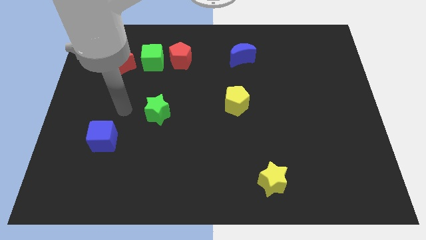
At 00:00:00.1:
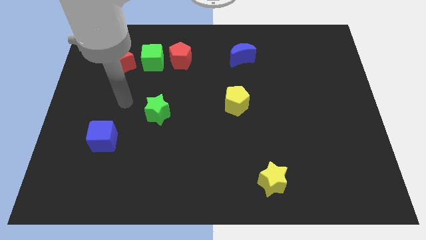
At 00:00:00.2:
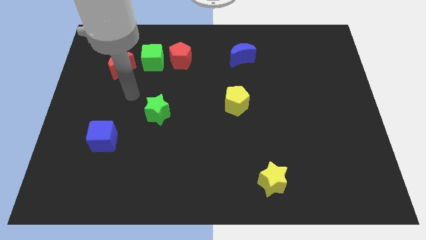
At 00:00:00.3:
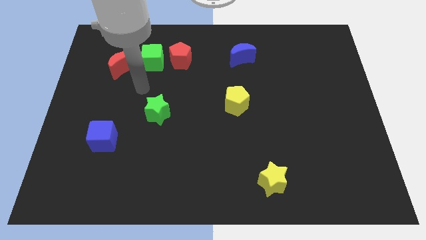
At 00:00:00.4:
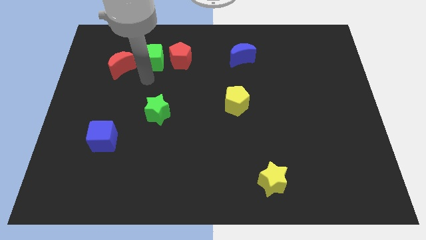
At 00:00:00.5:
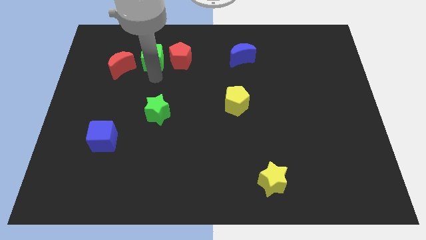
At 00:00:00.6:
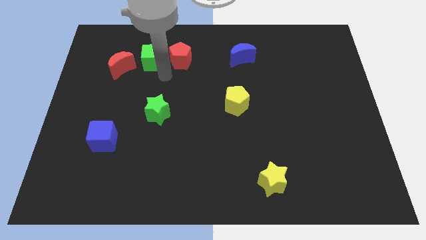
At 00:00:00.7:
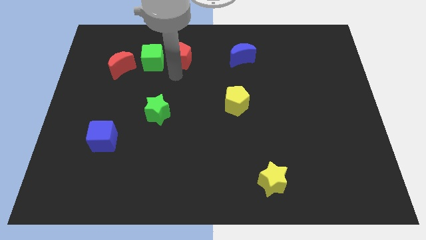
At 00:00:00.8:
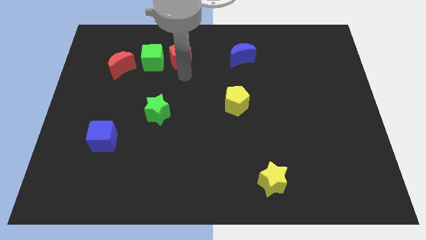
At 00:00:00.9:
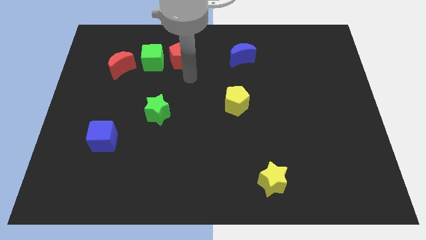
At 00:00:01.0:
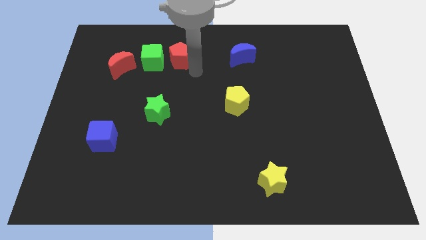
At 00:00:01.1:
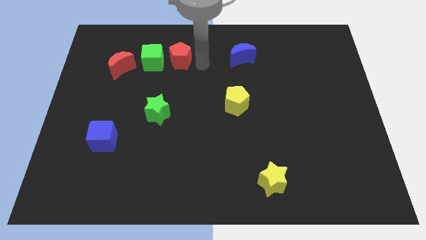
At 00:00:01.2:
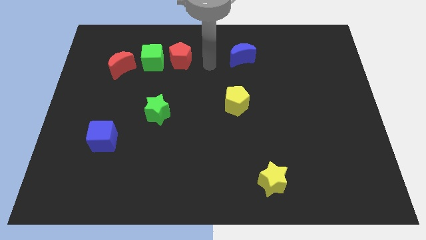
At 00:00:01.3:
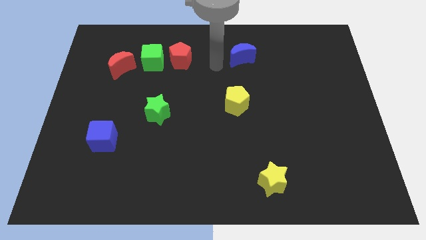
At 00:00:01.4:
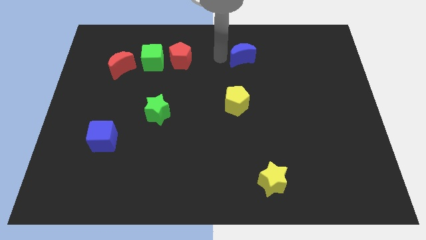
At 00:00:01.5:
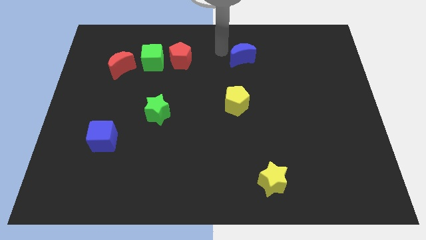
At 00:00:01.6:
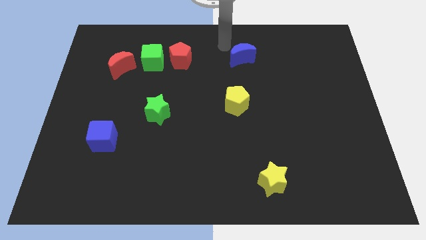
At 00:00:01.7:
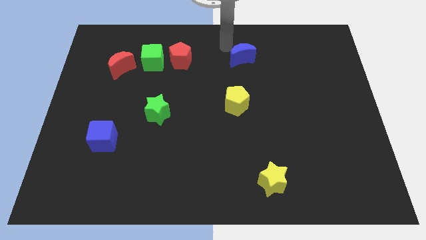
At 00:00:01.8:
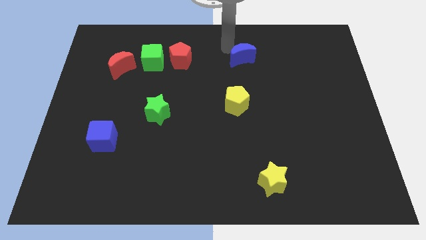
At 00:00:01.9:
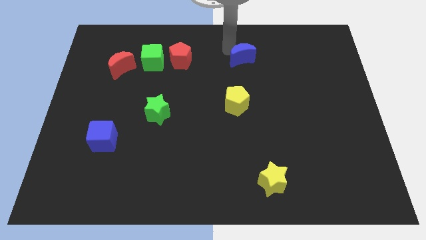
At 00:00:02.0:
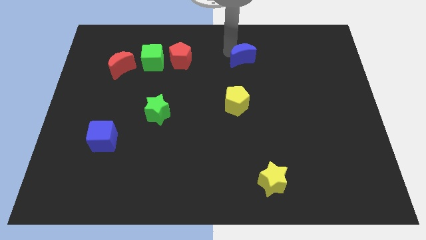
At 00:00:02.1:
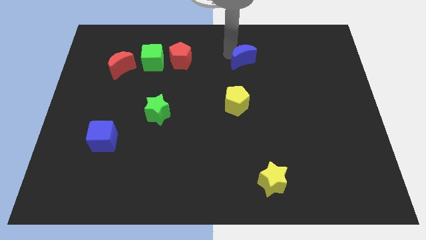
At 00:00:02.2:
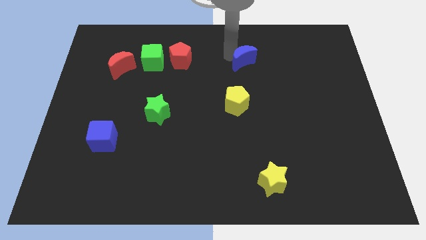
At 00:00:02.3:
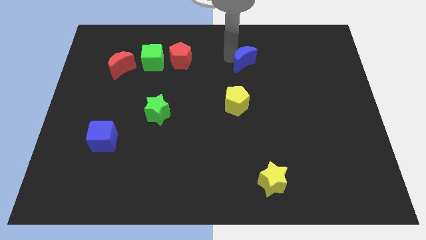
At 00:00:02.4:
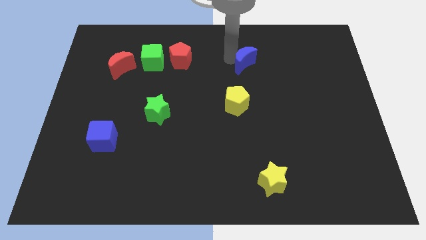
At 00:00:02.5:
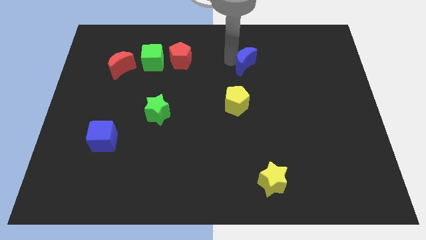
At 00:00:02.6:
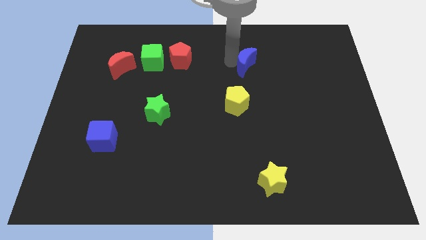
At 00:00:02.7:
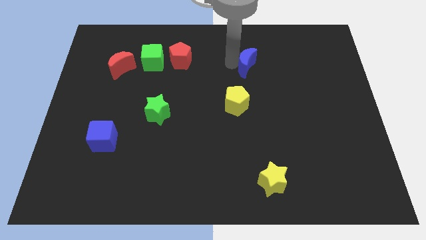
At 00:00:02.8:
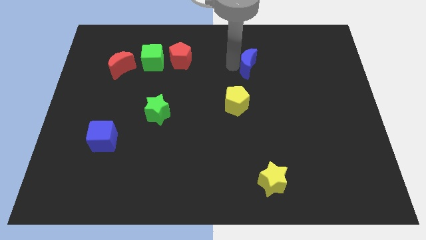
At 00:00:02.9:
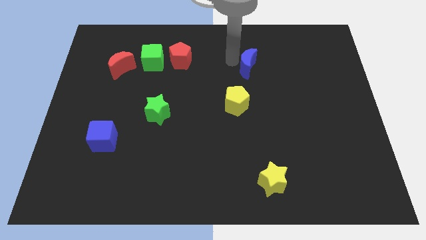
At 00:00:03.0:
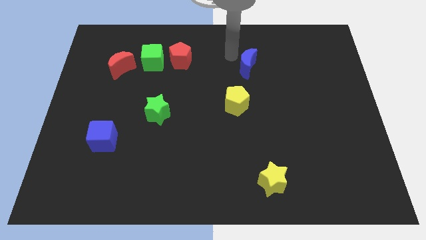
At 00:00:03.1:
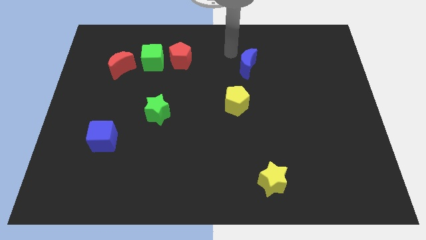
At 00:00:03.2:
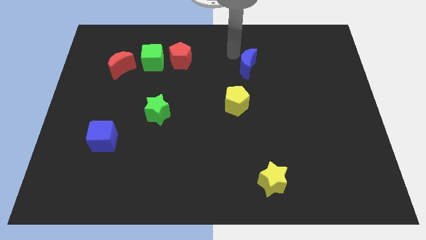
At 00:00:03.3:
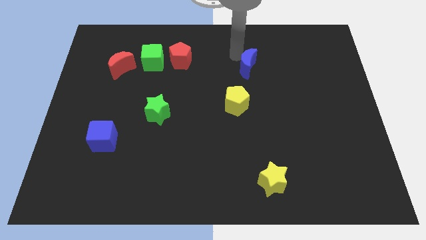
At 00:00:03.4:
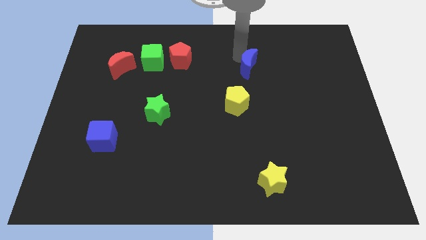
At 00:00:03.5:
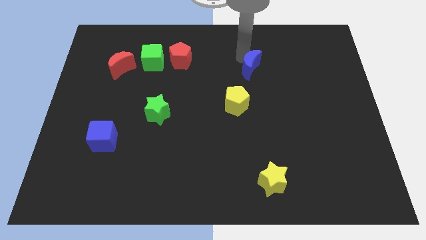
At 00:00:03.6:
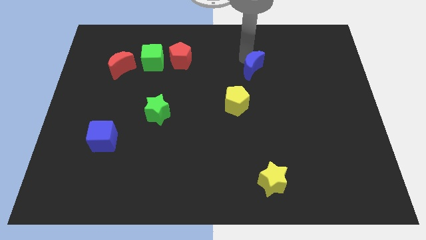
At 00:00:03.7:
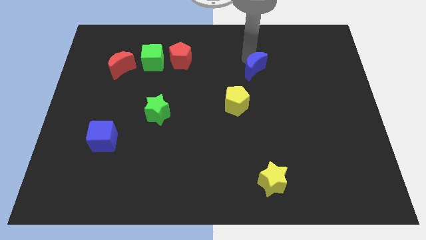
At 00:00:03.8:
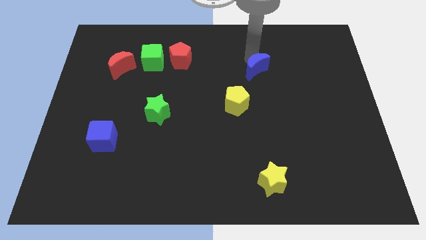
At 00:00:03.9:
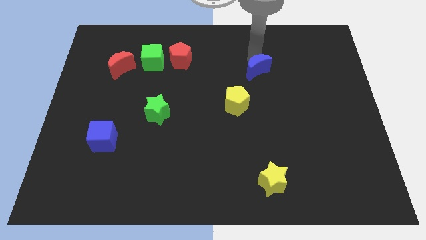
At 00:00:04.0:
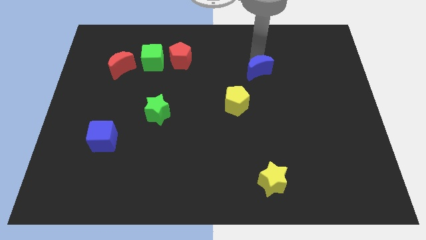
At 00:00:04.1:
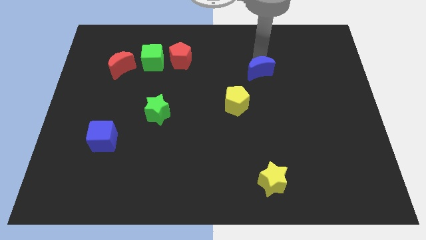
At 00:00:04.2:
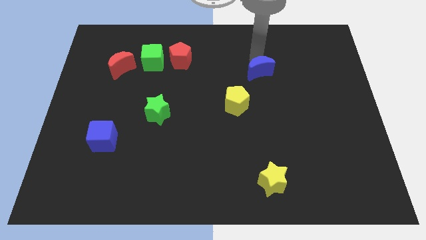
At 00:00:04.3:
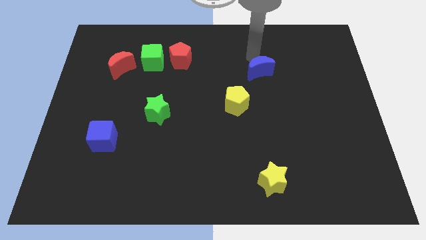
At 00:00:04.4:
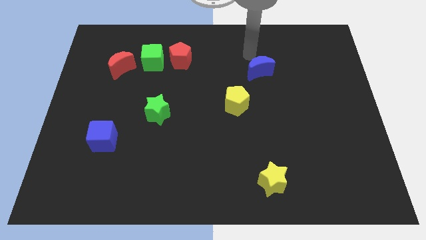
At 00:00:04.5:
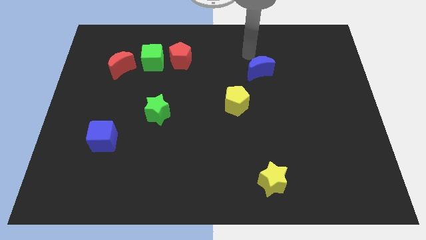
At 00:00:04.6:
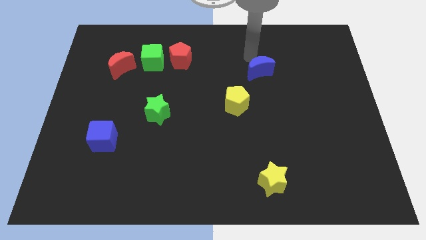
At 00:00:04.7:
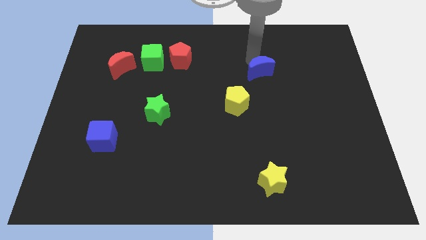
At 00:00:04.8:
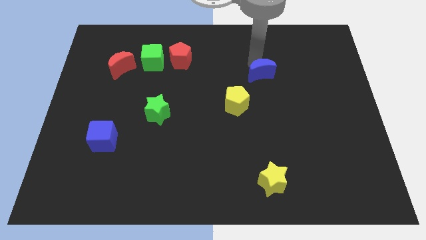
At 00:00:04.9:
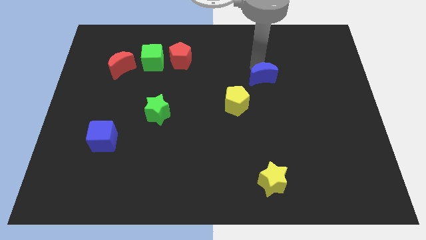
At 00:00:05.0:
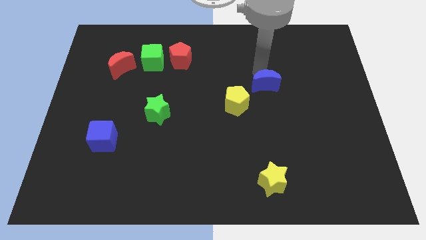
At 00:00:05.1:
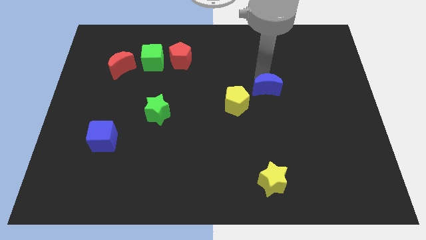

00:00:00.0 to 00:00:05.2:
push the blue moon to the right side of the yellow pentagon

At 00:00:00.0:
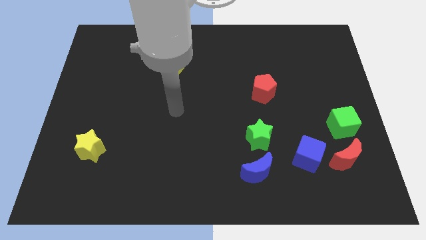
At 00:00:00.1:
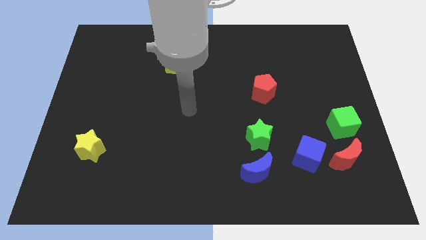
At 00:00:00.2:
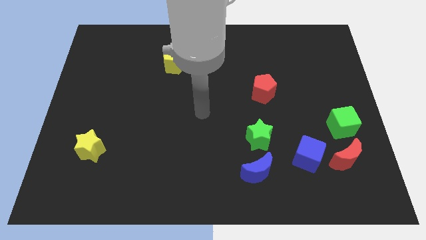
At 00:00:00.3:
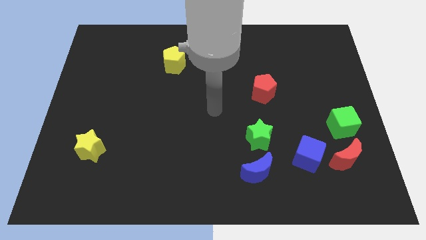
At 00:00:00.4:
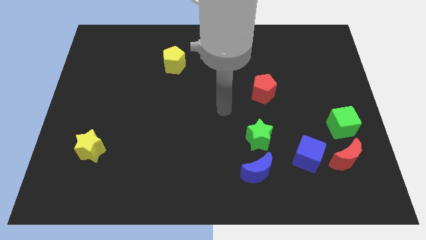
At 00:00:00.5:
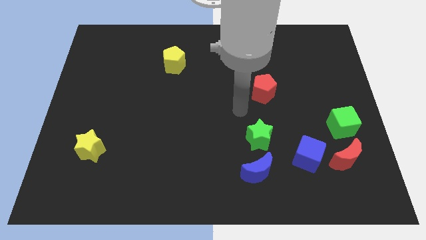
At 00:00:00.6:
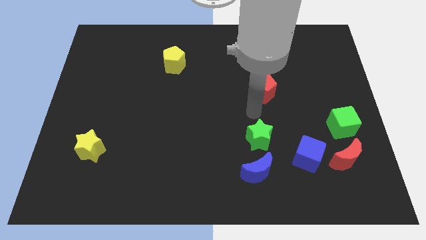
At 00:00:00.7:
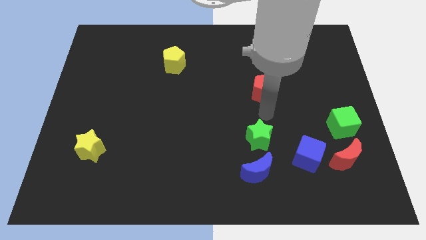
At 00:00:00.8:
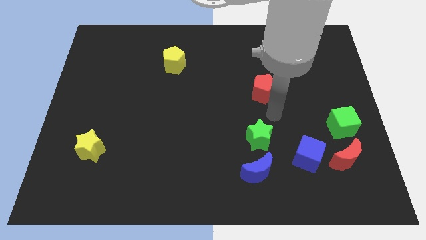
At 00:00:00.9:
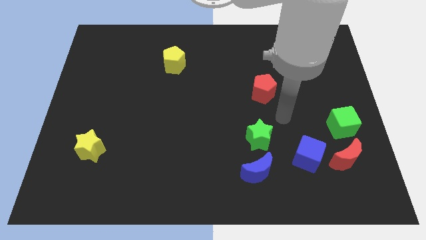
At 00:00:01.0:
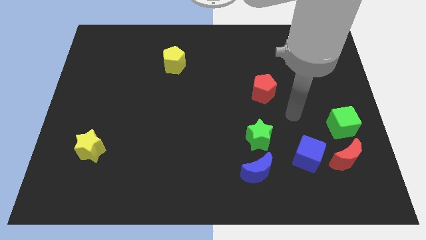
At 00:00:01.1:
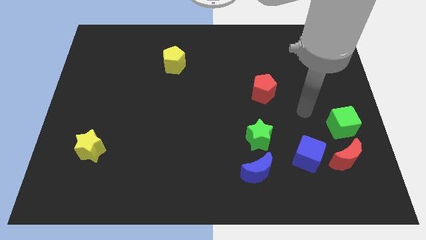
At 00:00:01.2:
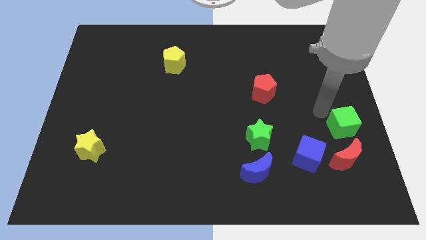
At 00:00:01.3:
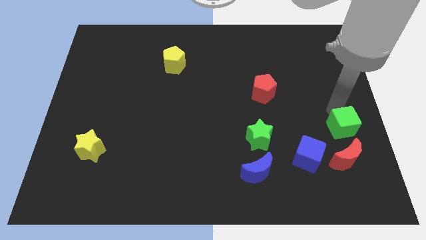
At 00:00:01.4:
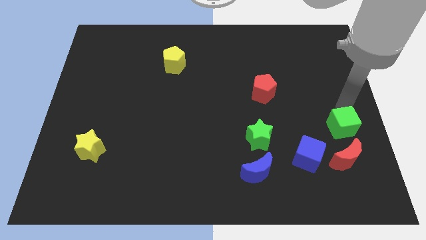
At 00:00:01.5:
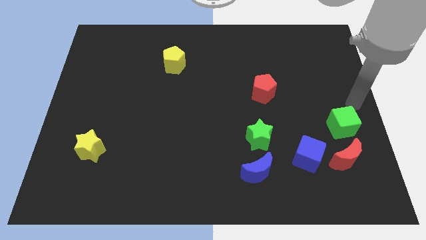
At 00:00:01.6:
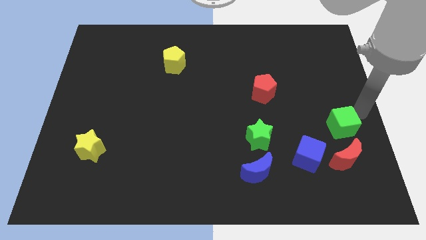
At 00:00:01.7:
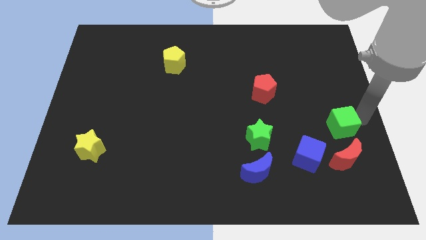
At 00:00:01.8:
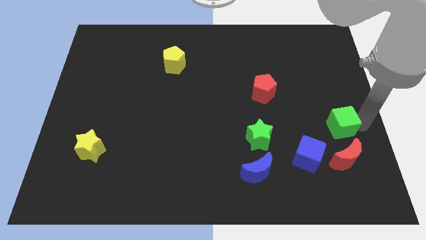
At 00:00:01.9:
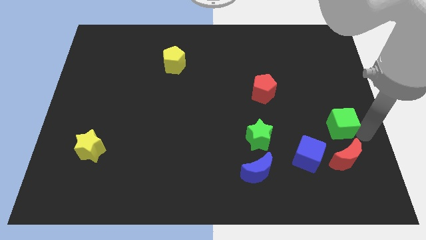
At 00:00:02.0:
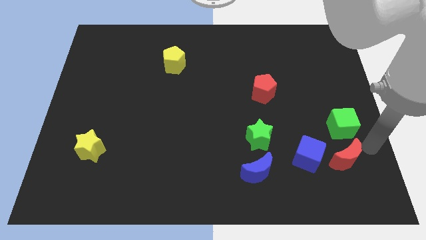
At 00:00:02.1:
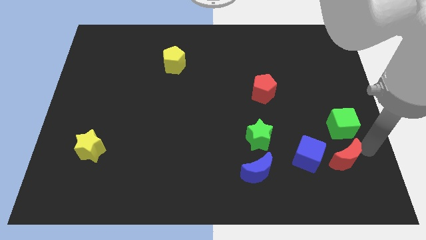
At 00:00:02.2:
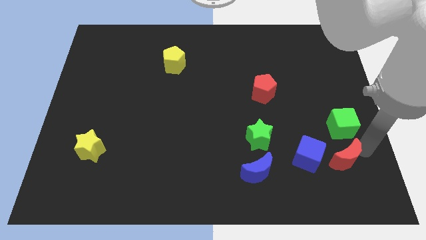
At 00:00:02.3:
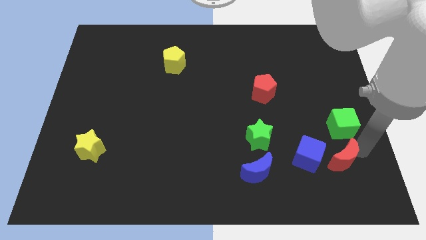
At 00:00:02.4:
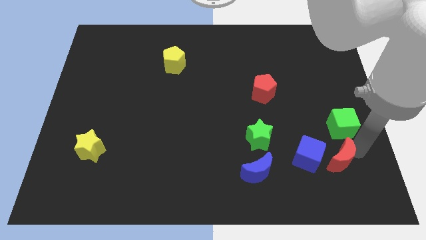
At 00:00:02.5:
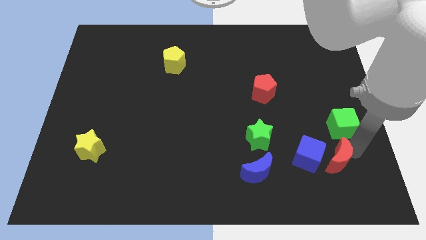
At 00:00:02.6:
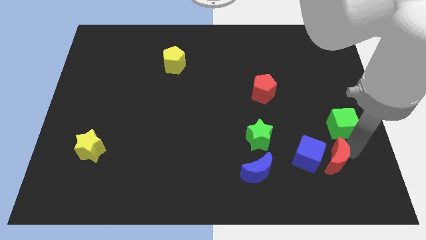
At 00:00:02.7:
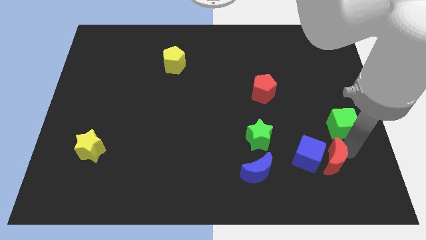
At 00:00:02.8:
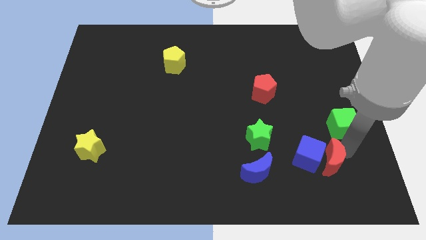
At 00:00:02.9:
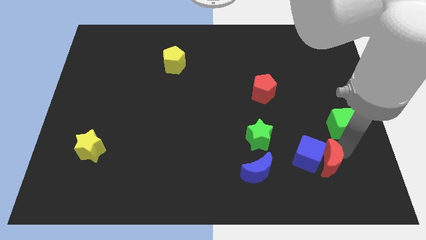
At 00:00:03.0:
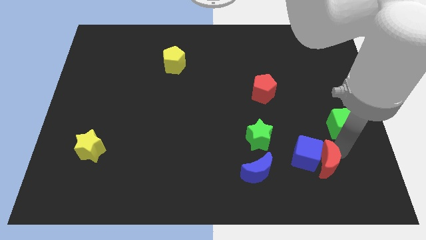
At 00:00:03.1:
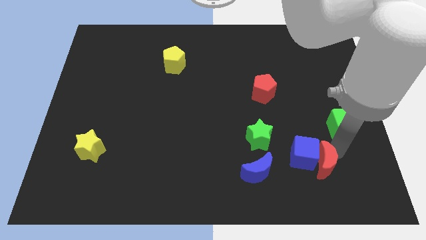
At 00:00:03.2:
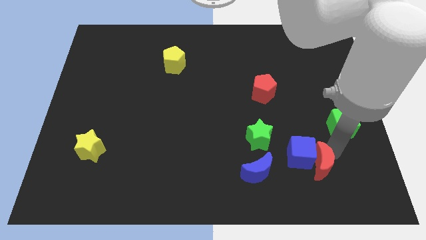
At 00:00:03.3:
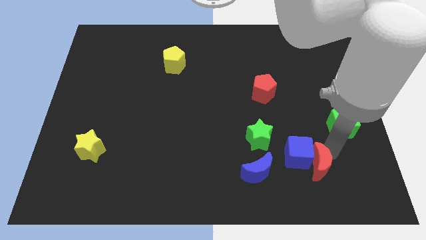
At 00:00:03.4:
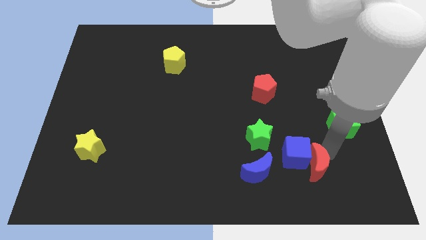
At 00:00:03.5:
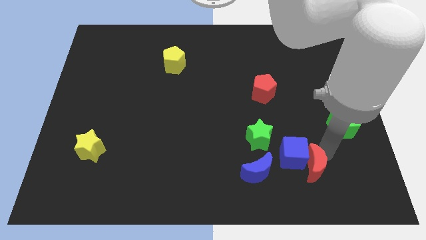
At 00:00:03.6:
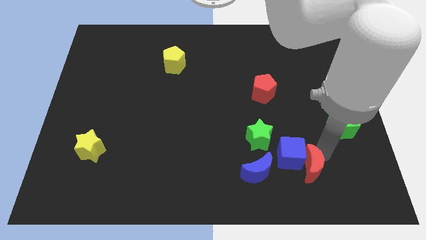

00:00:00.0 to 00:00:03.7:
push the red moon to the bottom right of the green star
